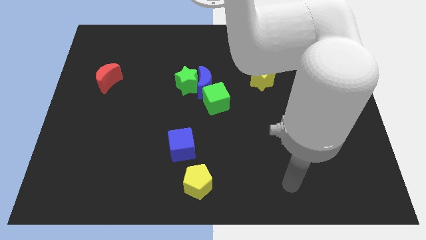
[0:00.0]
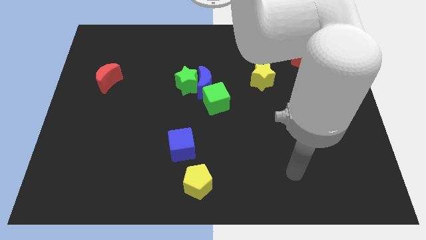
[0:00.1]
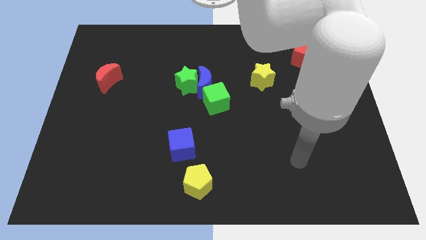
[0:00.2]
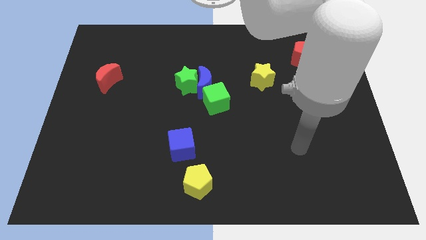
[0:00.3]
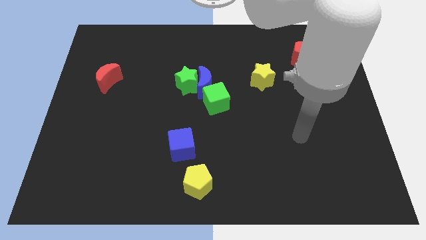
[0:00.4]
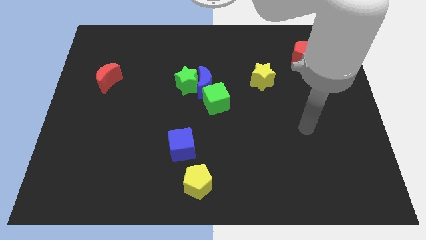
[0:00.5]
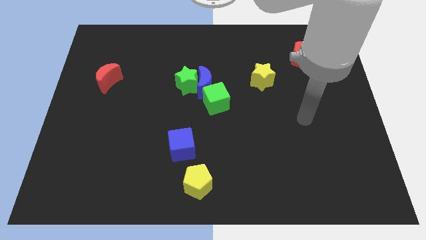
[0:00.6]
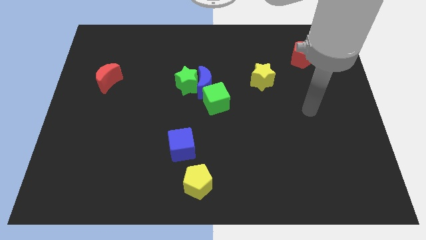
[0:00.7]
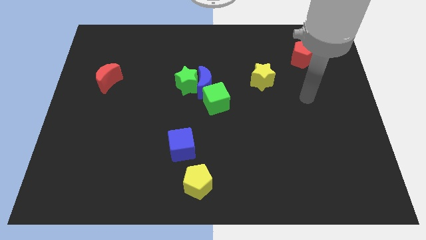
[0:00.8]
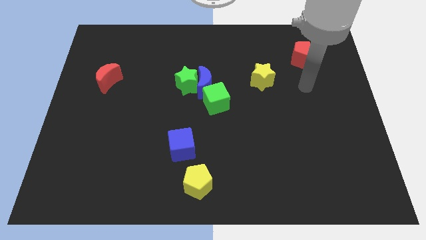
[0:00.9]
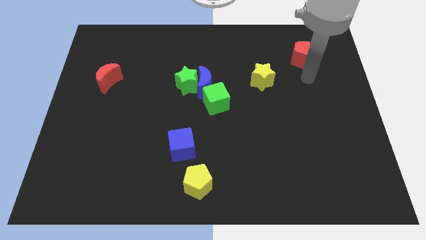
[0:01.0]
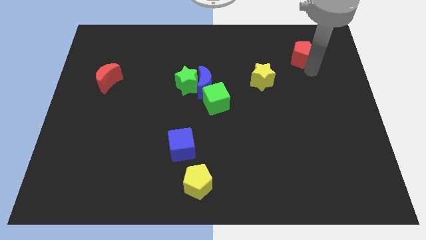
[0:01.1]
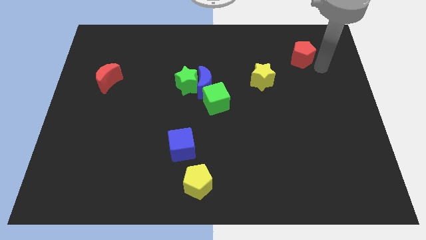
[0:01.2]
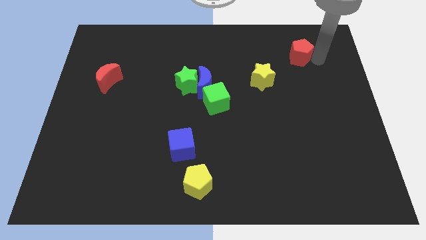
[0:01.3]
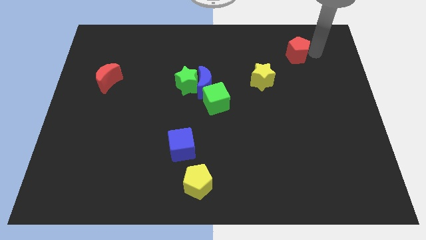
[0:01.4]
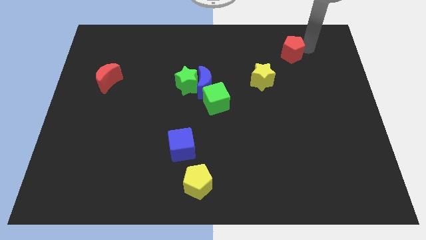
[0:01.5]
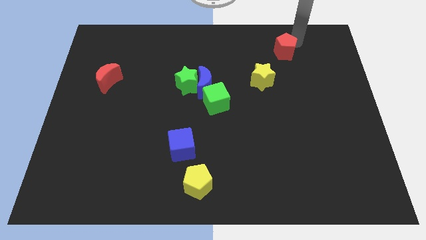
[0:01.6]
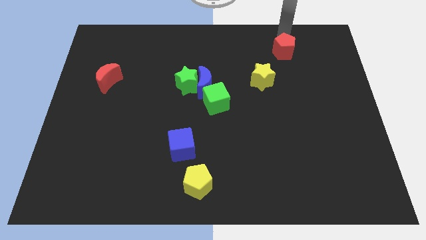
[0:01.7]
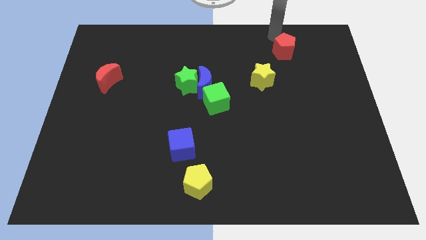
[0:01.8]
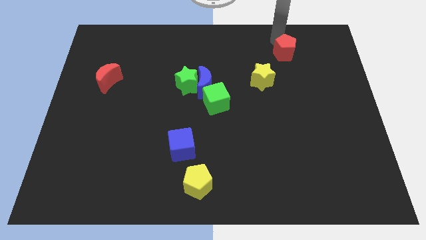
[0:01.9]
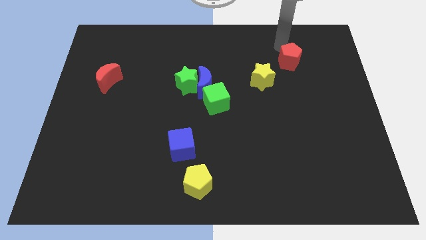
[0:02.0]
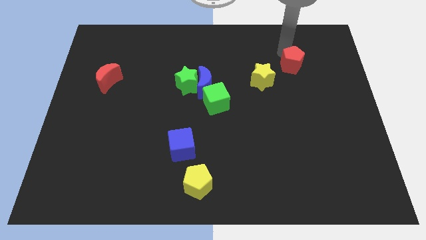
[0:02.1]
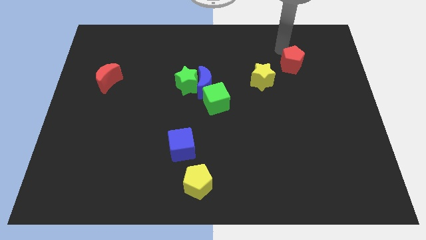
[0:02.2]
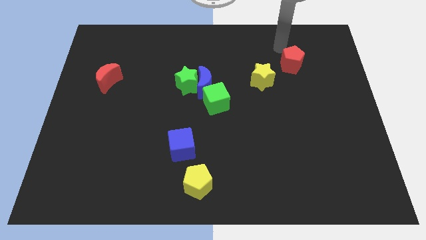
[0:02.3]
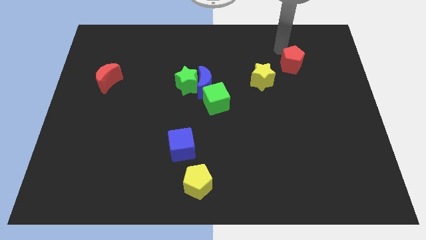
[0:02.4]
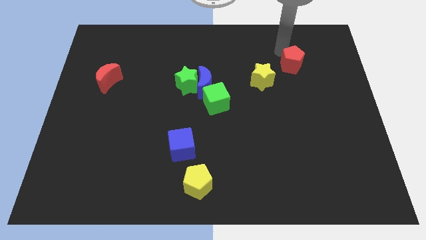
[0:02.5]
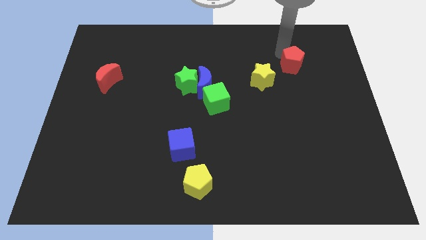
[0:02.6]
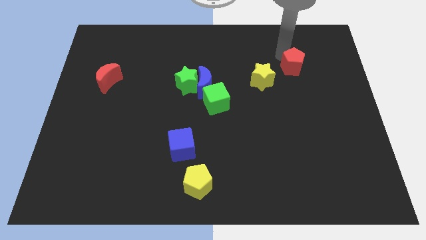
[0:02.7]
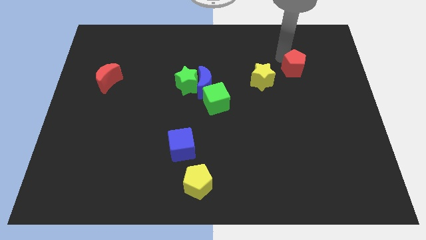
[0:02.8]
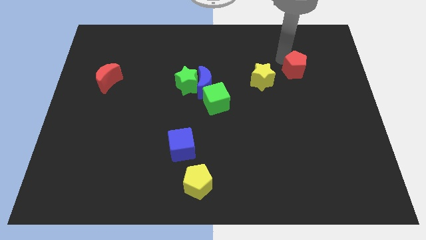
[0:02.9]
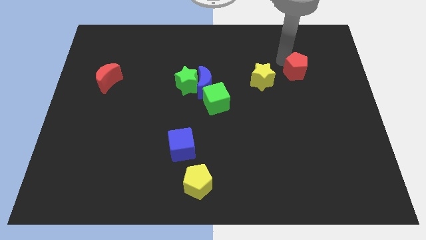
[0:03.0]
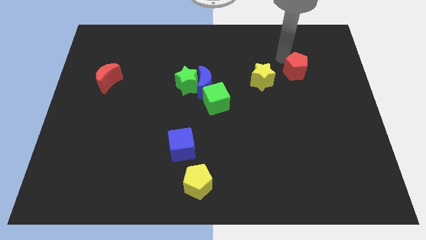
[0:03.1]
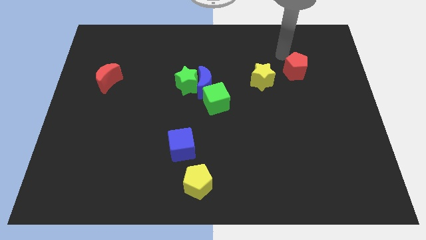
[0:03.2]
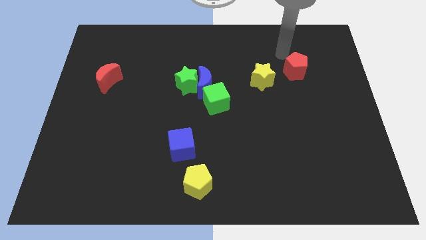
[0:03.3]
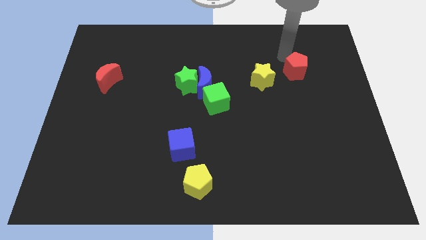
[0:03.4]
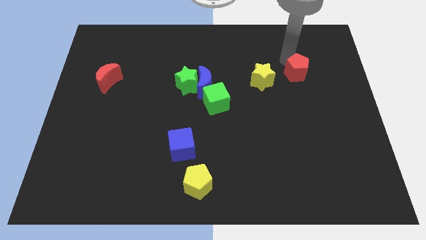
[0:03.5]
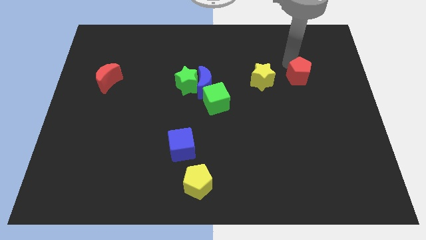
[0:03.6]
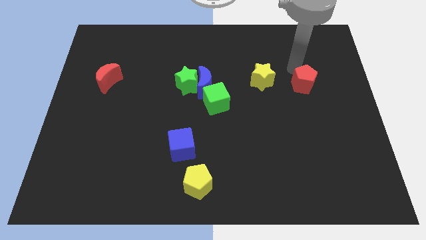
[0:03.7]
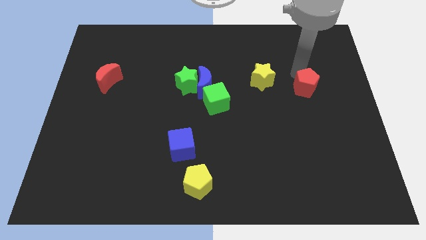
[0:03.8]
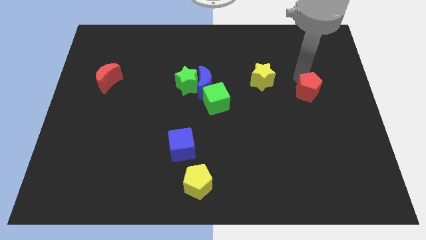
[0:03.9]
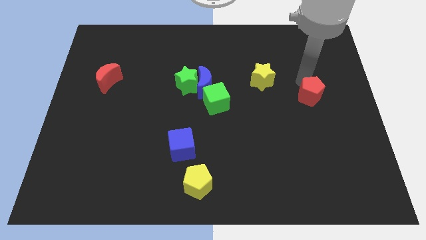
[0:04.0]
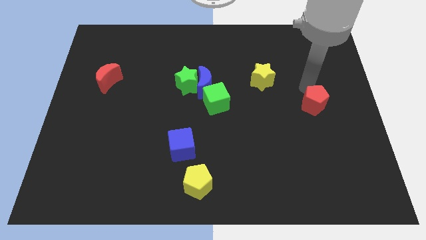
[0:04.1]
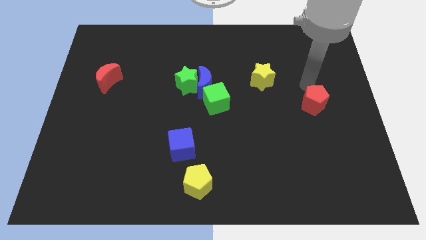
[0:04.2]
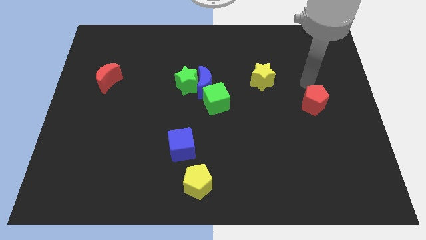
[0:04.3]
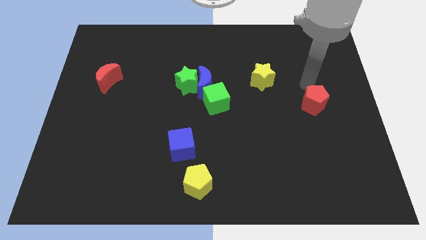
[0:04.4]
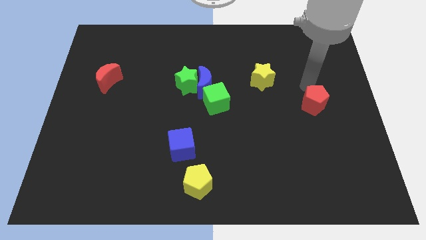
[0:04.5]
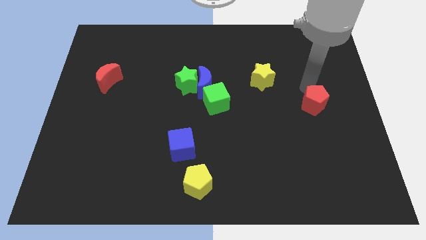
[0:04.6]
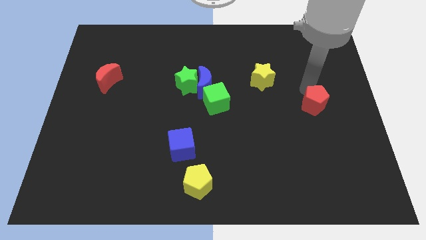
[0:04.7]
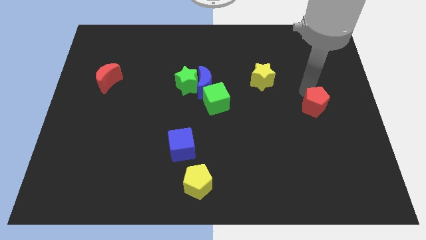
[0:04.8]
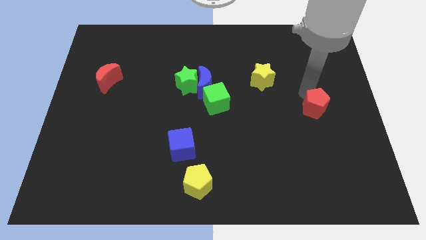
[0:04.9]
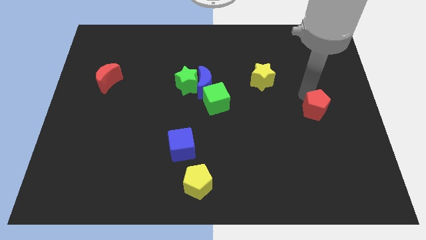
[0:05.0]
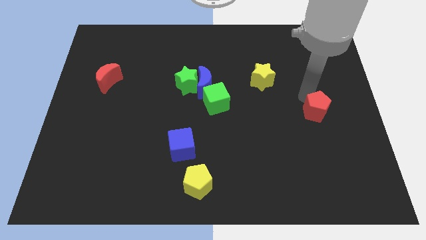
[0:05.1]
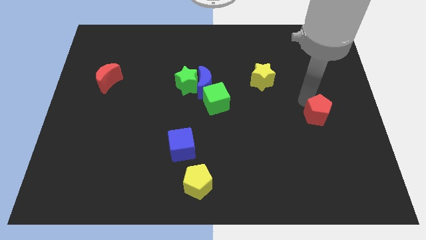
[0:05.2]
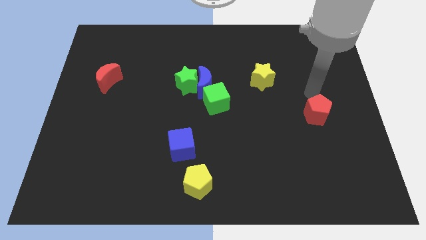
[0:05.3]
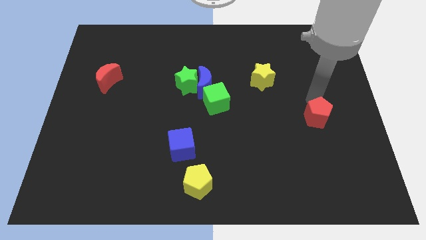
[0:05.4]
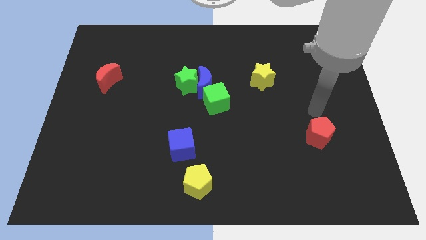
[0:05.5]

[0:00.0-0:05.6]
move the red pentagon down

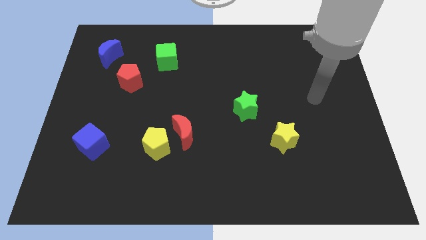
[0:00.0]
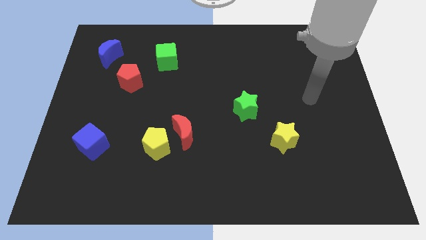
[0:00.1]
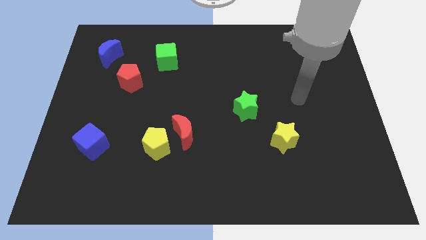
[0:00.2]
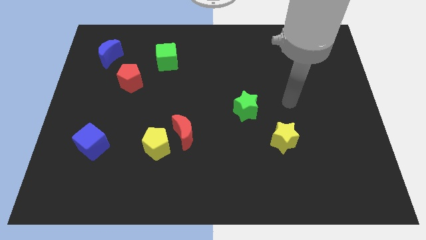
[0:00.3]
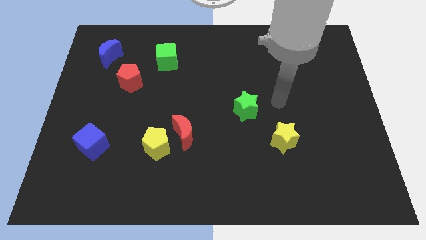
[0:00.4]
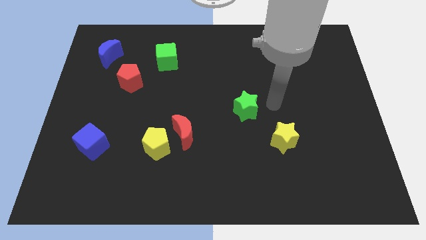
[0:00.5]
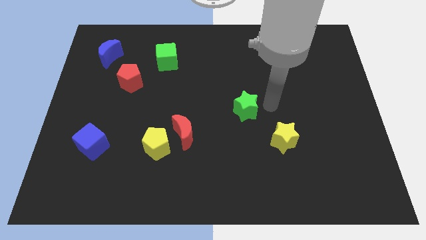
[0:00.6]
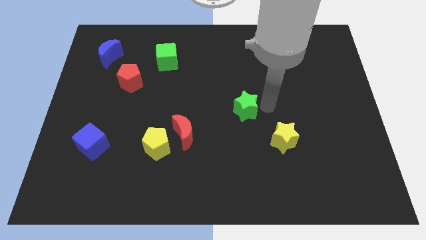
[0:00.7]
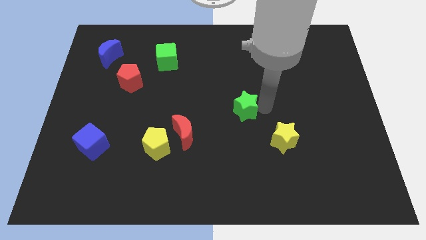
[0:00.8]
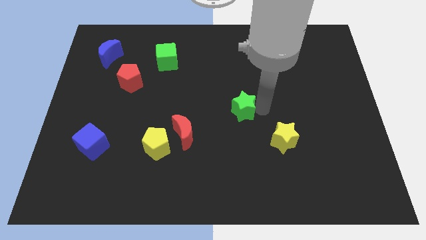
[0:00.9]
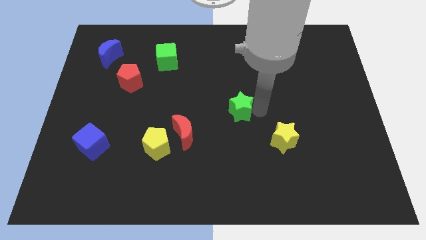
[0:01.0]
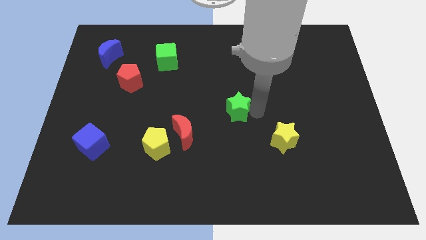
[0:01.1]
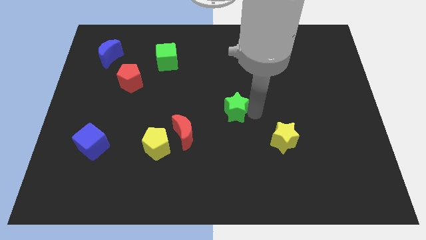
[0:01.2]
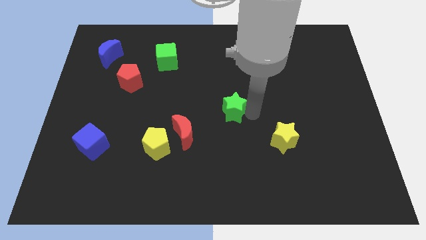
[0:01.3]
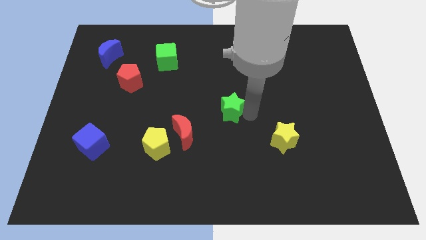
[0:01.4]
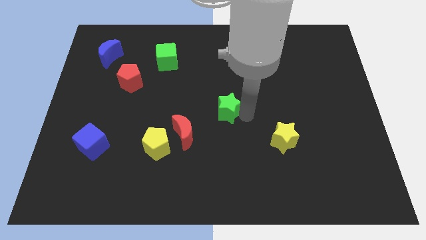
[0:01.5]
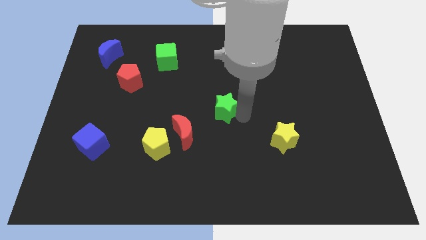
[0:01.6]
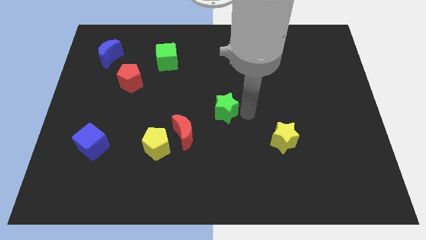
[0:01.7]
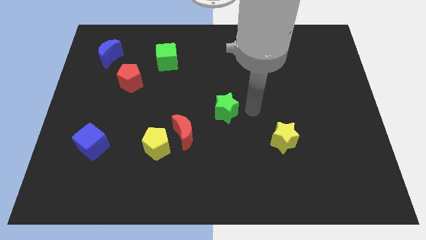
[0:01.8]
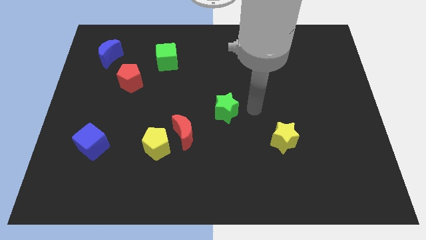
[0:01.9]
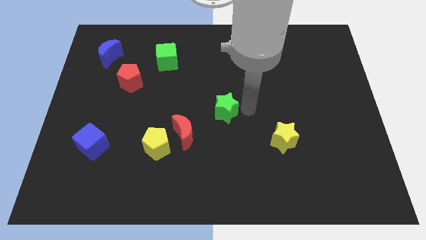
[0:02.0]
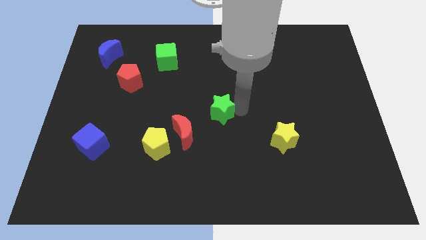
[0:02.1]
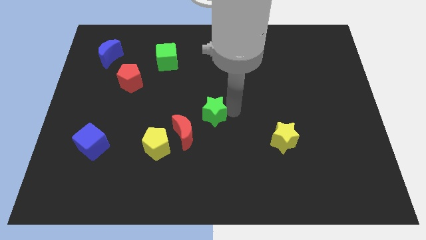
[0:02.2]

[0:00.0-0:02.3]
move the green star to the left somewhat
